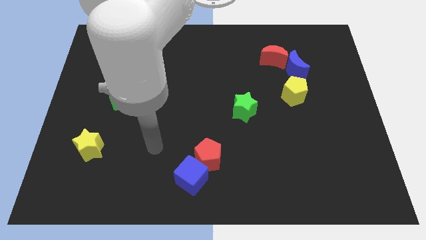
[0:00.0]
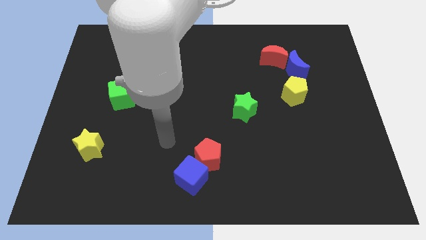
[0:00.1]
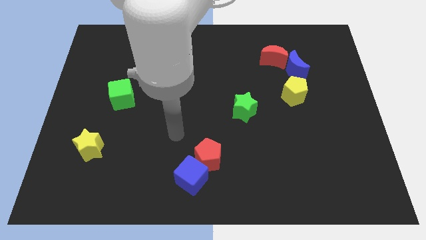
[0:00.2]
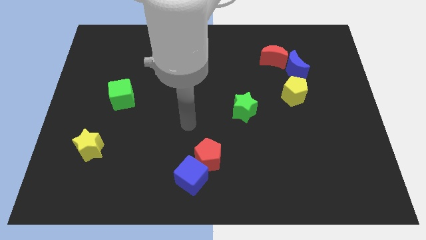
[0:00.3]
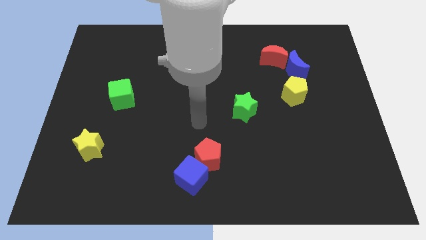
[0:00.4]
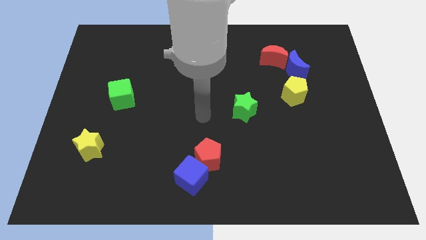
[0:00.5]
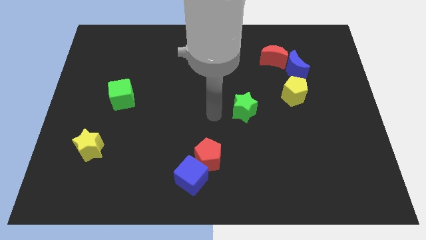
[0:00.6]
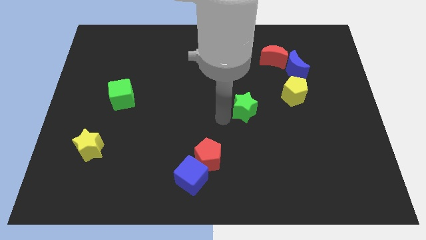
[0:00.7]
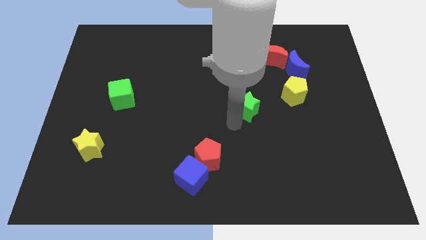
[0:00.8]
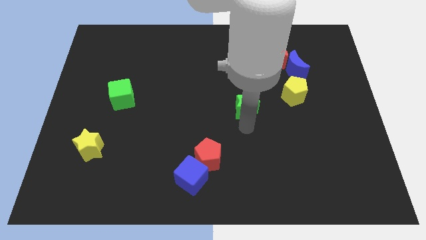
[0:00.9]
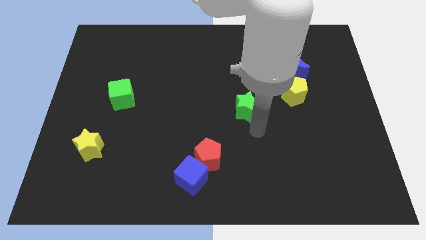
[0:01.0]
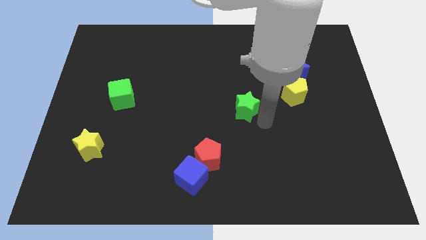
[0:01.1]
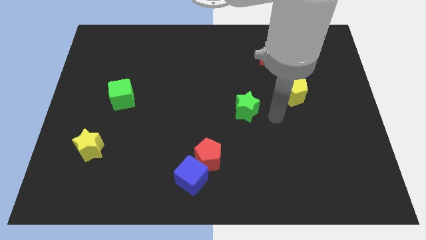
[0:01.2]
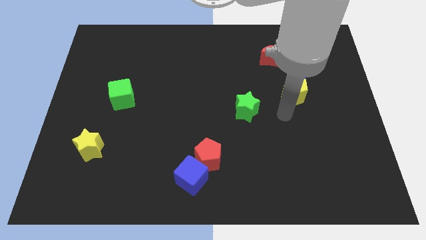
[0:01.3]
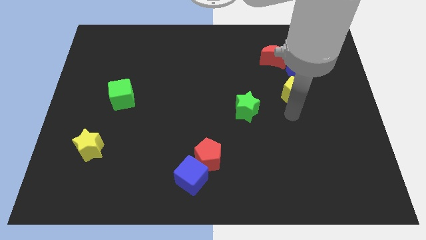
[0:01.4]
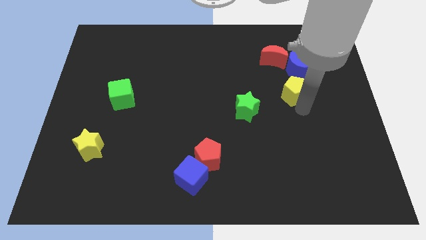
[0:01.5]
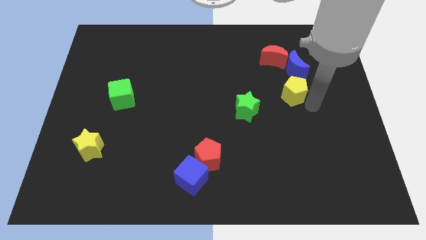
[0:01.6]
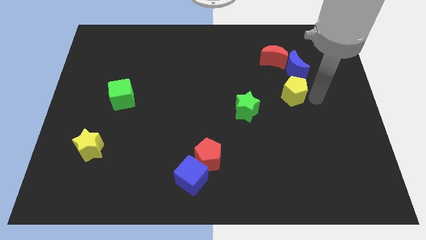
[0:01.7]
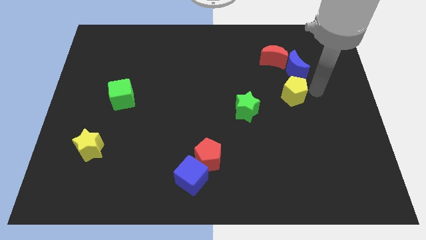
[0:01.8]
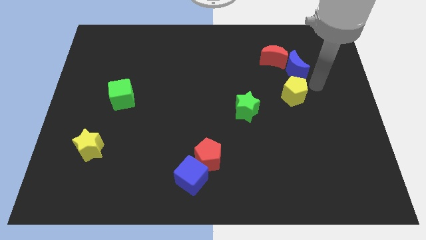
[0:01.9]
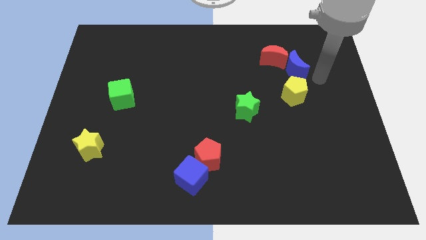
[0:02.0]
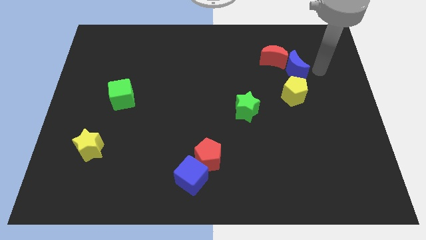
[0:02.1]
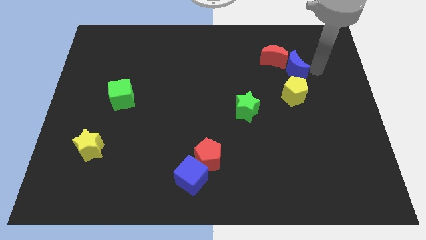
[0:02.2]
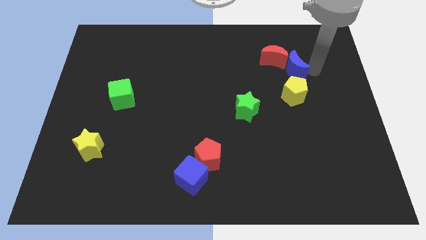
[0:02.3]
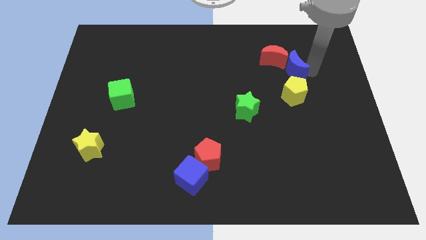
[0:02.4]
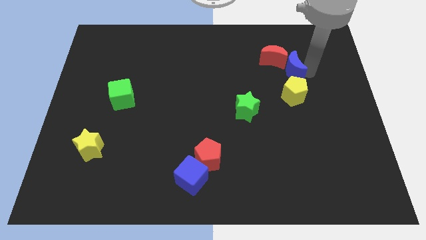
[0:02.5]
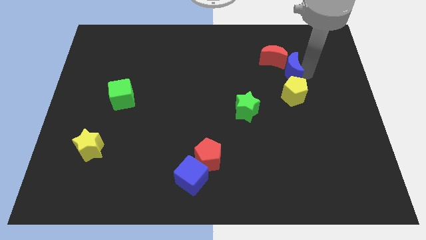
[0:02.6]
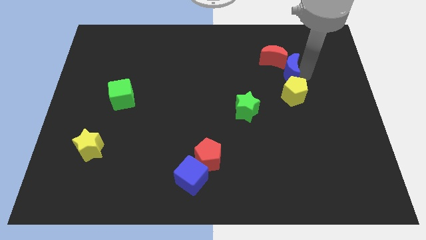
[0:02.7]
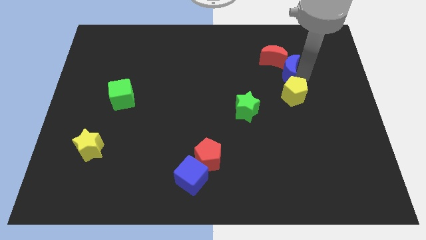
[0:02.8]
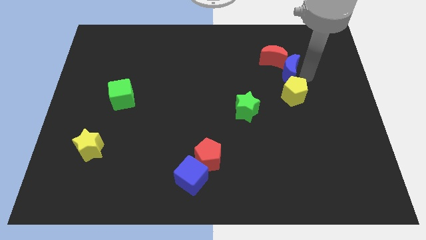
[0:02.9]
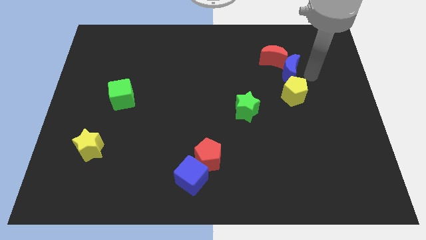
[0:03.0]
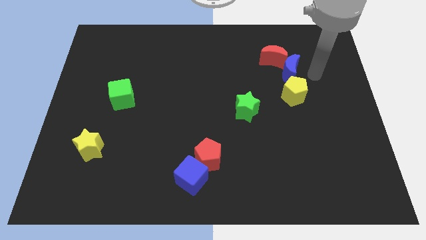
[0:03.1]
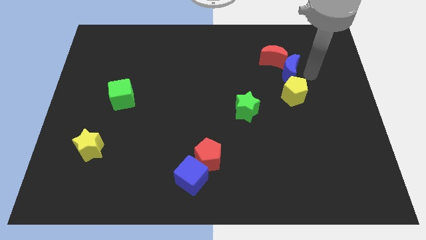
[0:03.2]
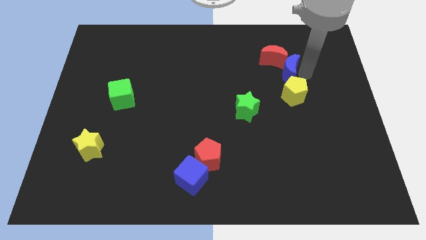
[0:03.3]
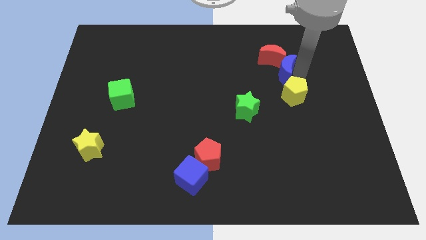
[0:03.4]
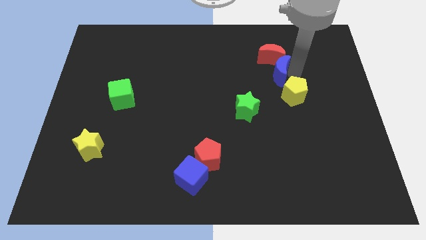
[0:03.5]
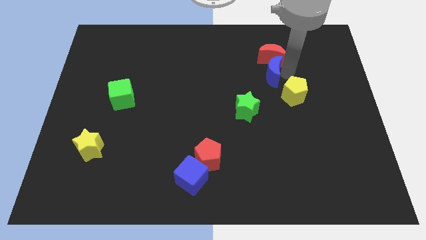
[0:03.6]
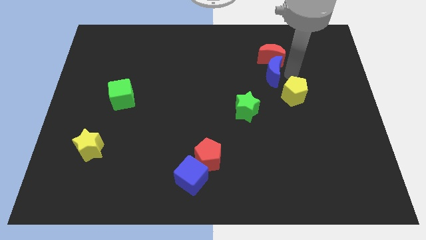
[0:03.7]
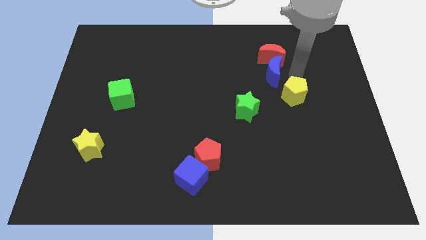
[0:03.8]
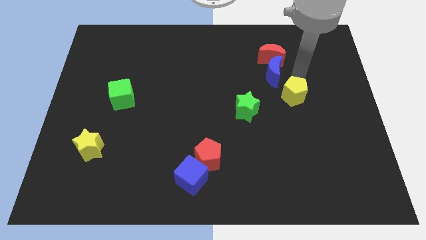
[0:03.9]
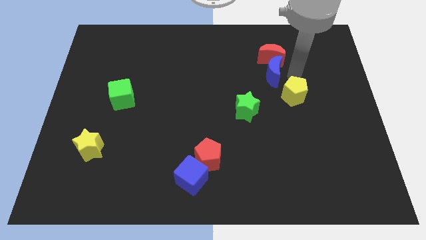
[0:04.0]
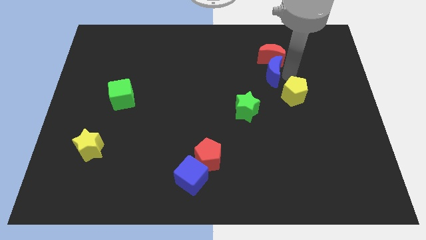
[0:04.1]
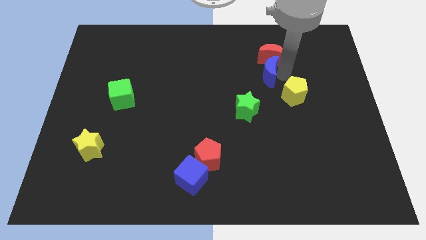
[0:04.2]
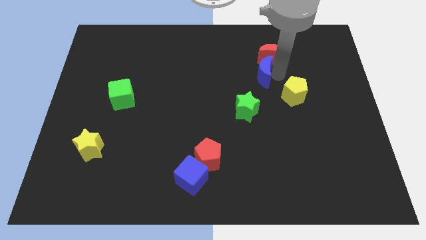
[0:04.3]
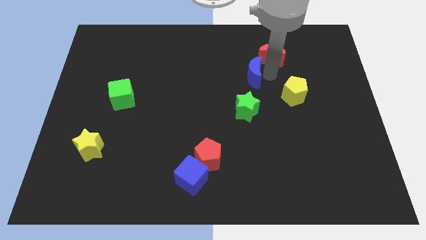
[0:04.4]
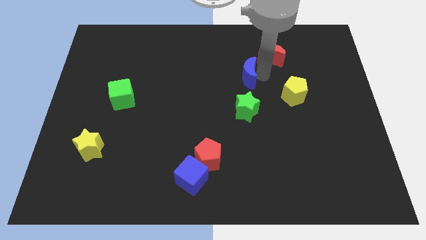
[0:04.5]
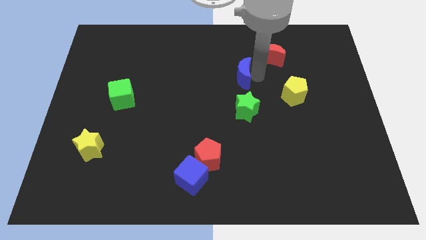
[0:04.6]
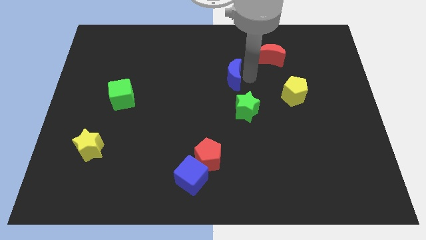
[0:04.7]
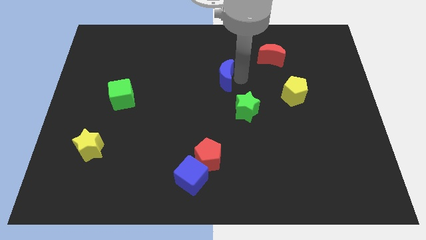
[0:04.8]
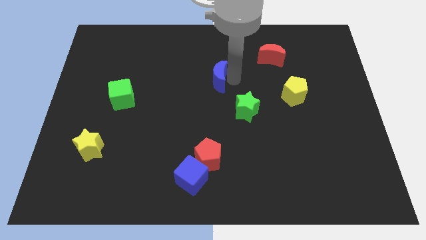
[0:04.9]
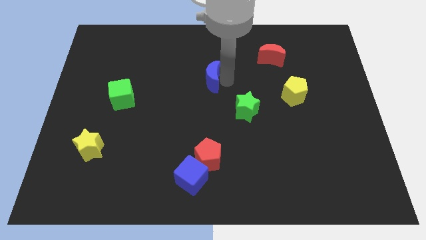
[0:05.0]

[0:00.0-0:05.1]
slide the blue moon left

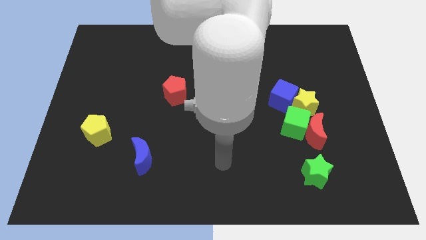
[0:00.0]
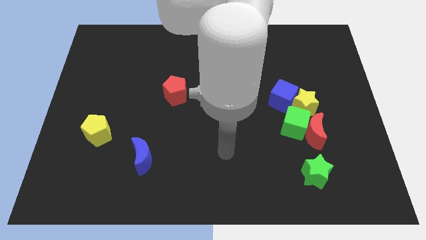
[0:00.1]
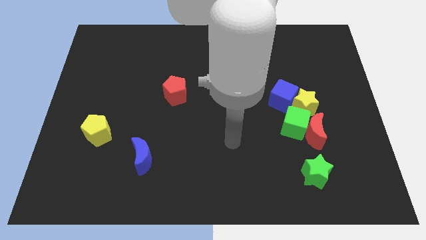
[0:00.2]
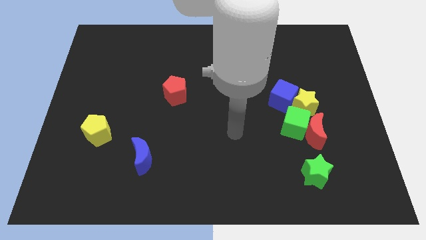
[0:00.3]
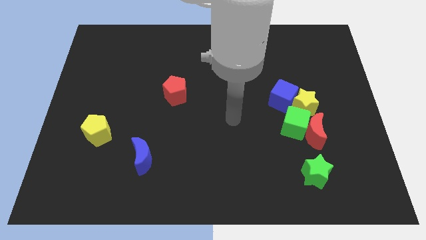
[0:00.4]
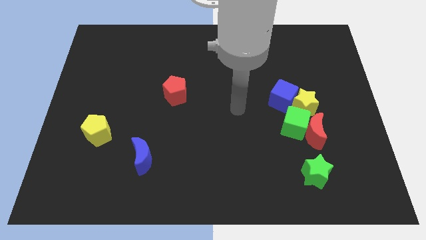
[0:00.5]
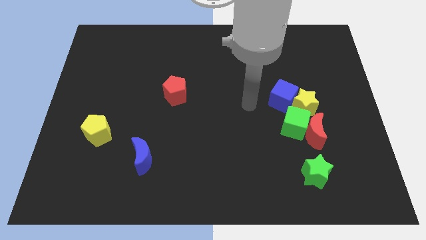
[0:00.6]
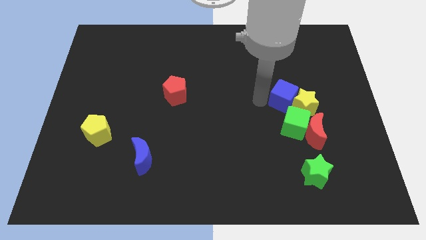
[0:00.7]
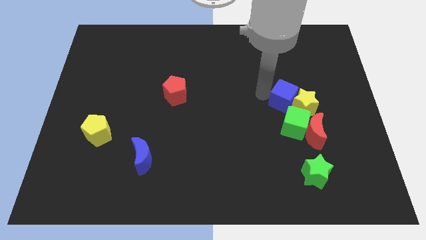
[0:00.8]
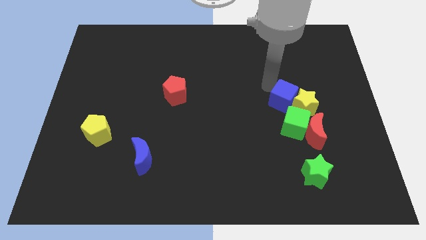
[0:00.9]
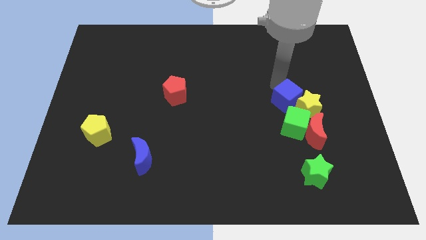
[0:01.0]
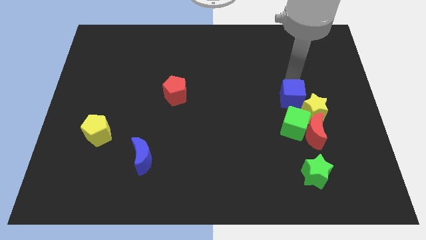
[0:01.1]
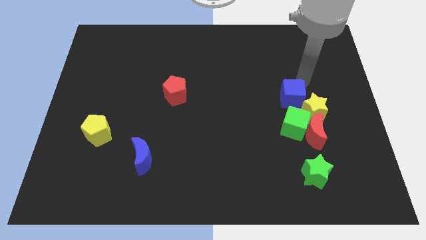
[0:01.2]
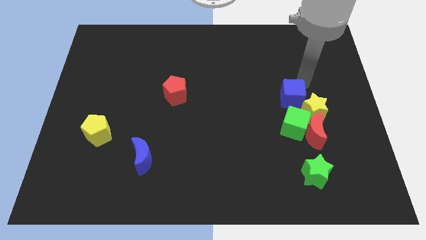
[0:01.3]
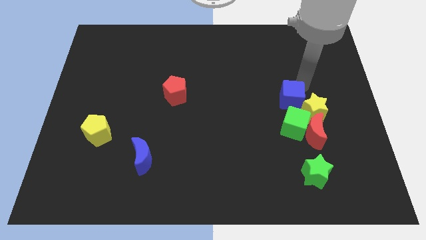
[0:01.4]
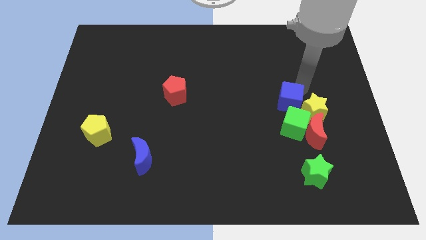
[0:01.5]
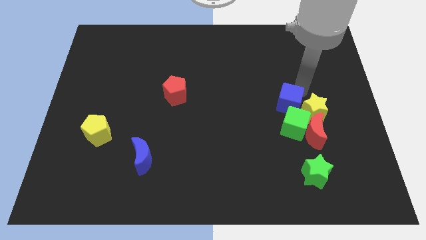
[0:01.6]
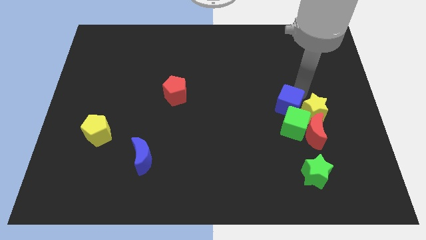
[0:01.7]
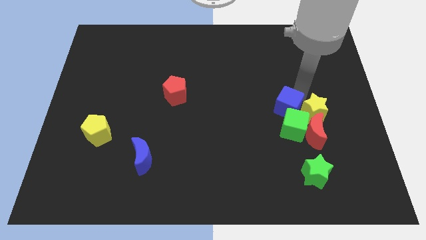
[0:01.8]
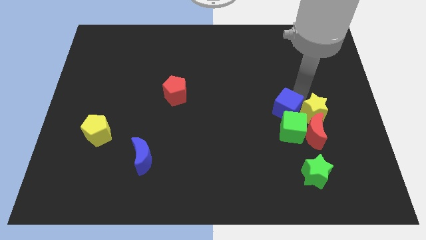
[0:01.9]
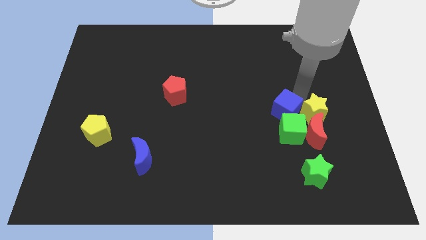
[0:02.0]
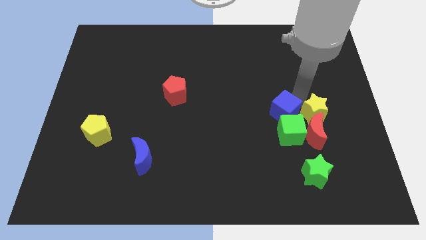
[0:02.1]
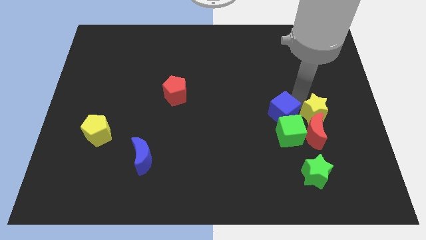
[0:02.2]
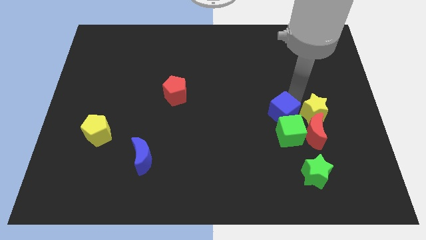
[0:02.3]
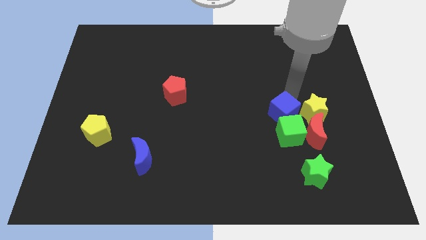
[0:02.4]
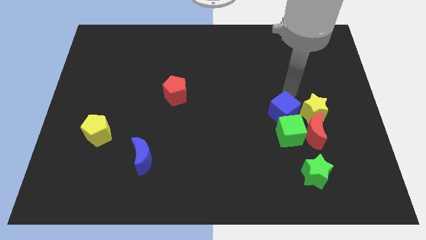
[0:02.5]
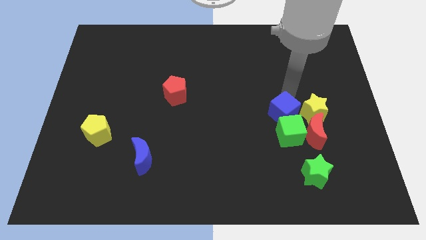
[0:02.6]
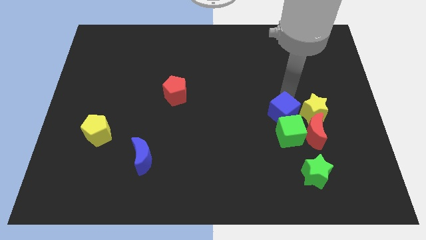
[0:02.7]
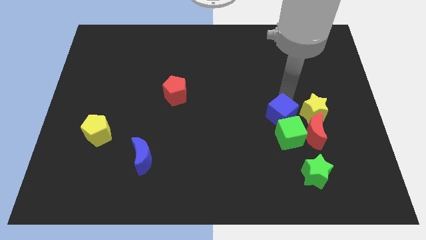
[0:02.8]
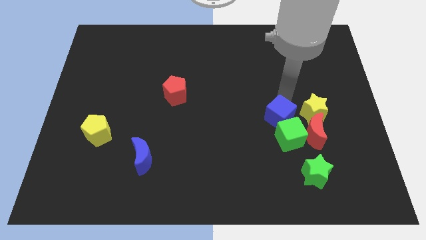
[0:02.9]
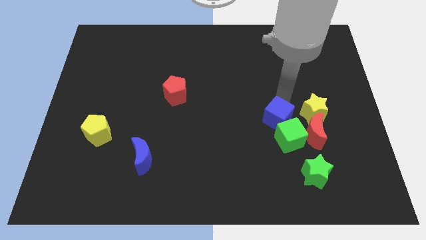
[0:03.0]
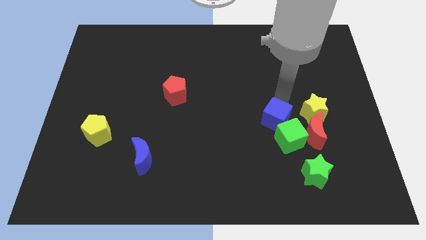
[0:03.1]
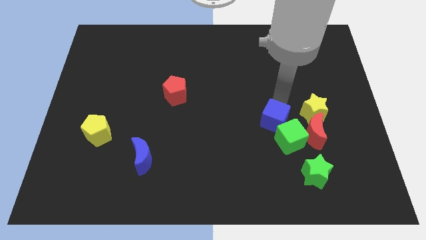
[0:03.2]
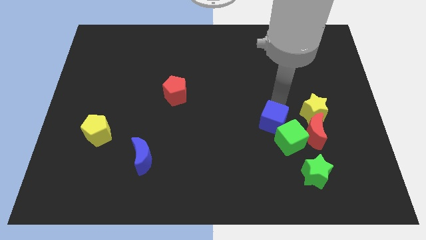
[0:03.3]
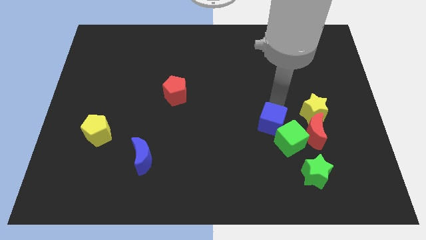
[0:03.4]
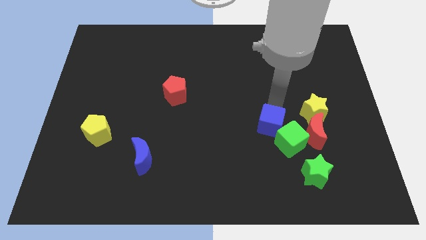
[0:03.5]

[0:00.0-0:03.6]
slightly push the blue cube down
